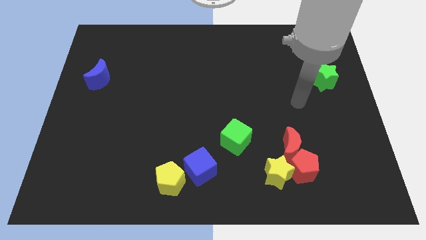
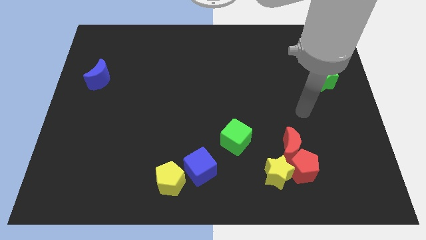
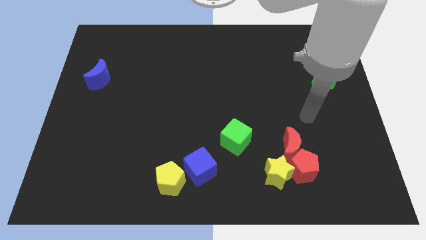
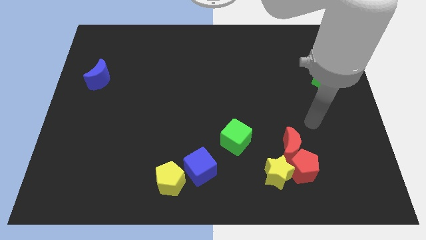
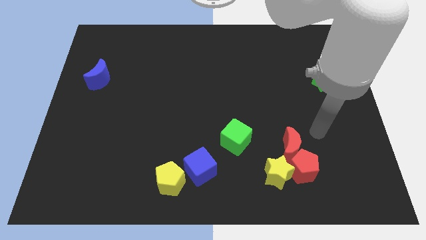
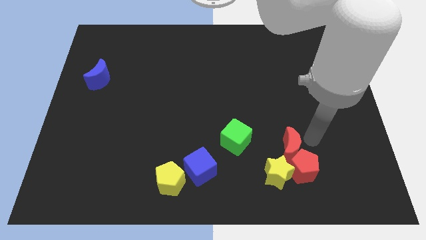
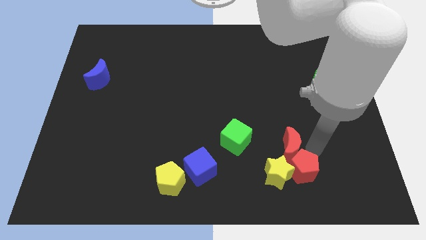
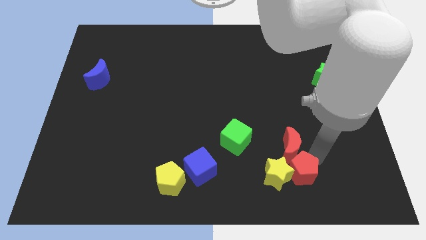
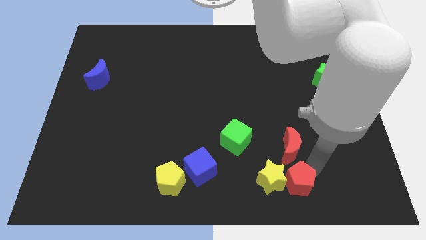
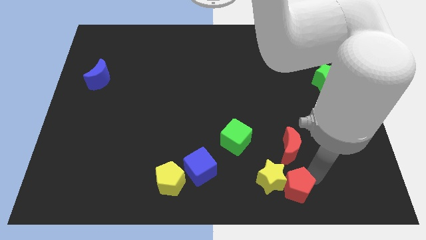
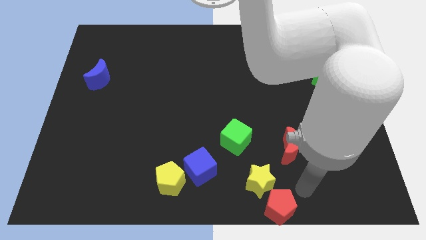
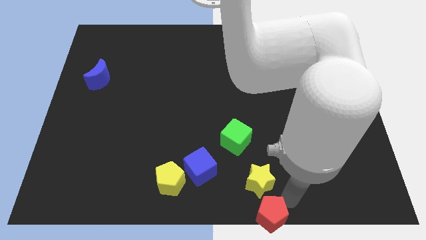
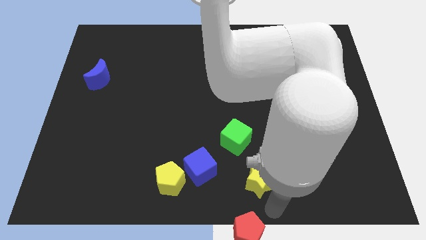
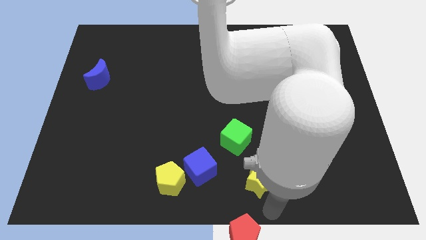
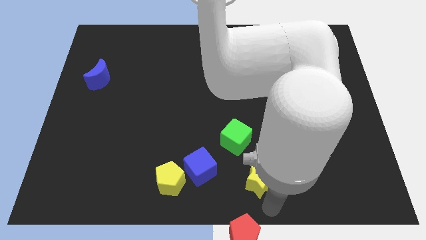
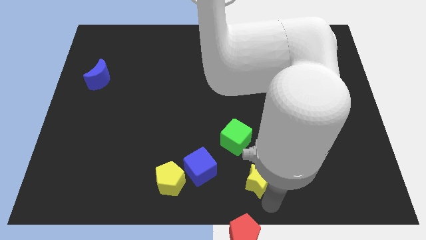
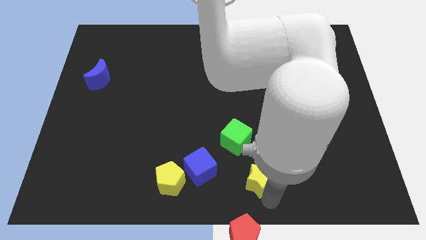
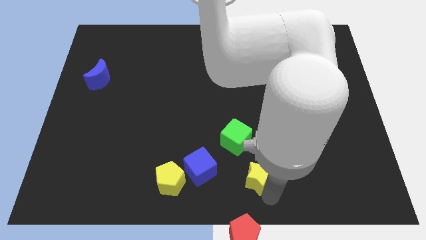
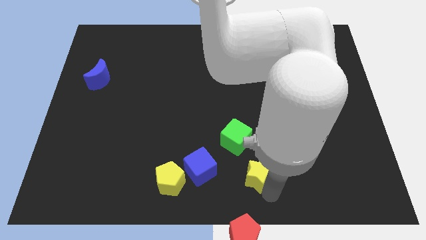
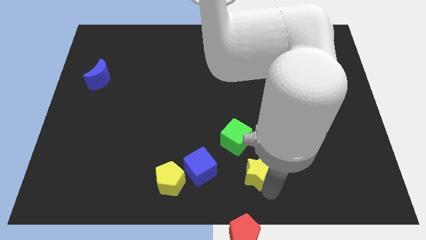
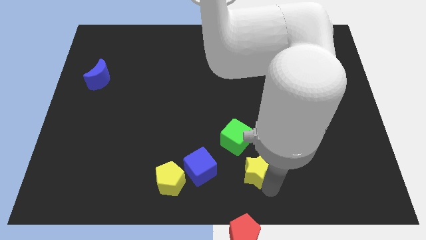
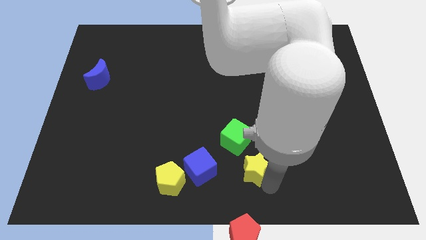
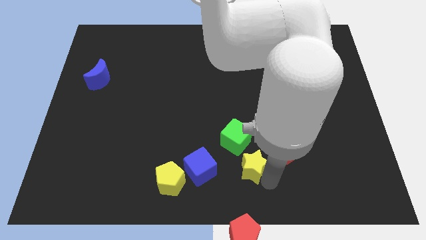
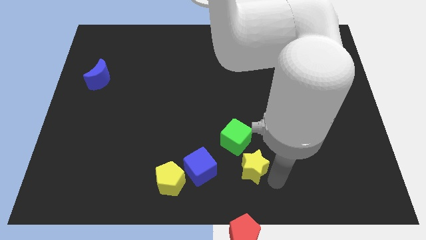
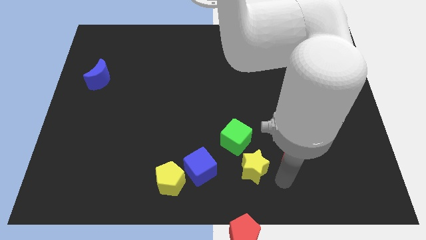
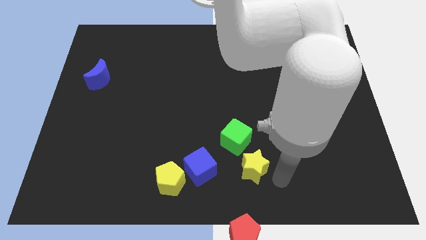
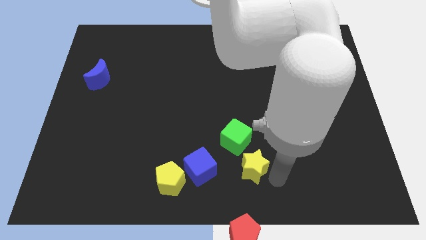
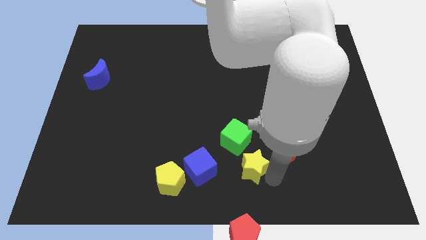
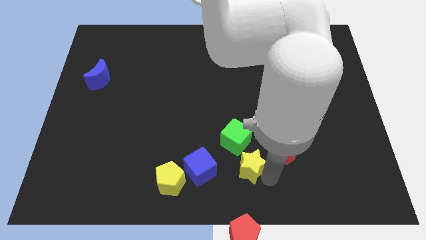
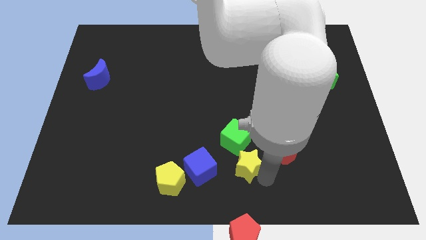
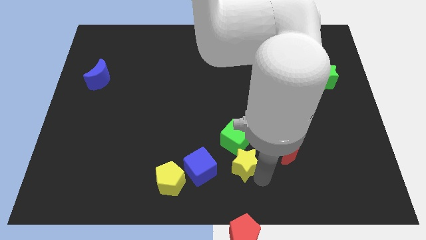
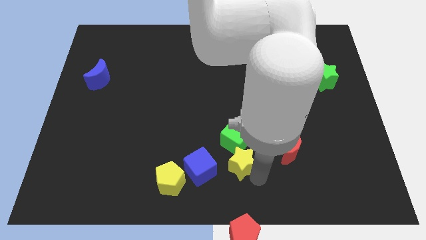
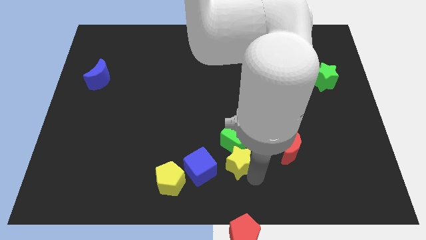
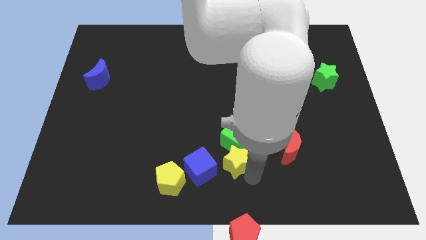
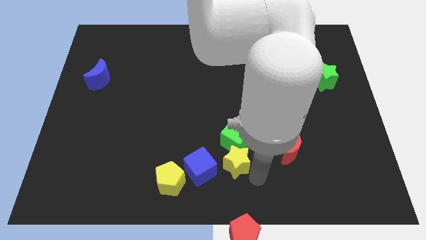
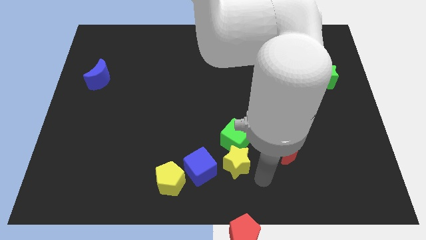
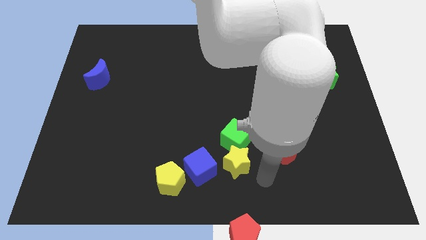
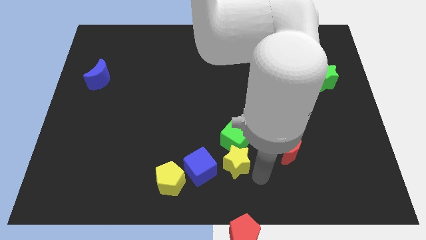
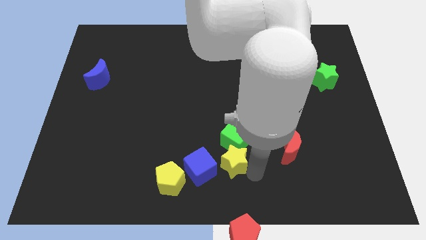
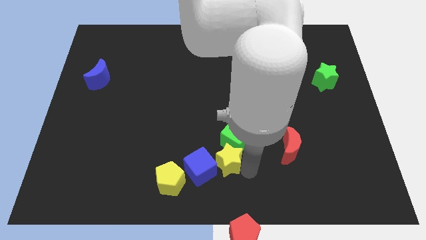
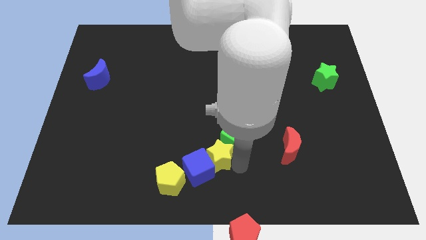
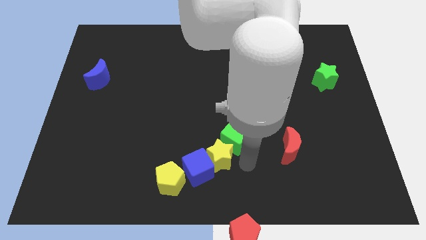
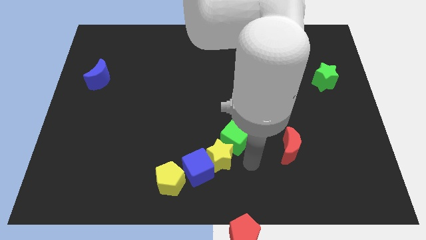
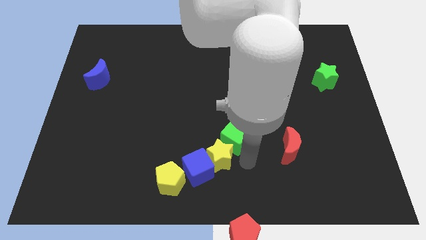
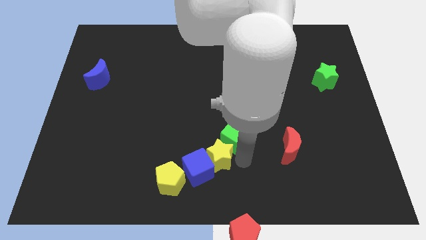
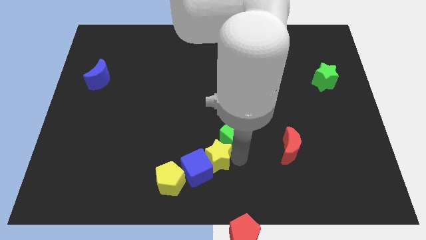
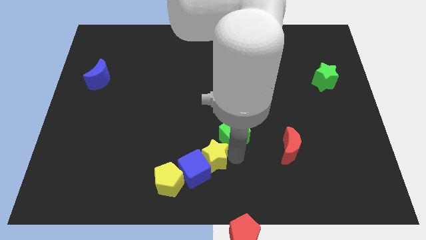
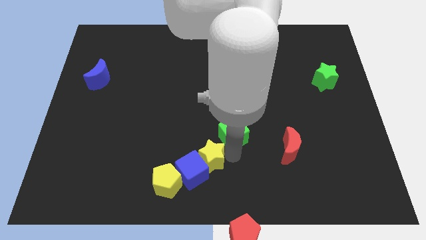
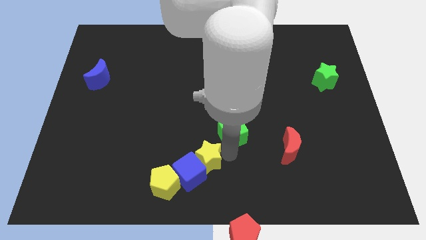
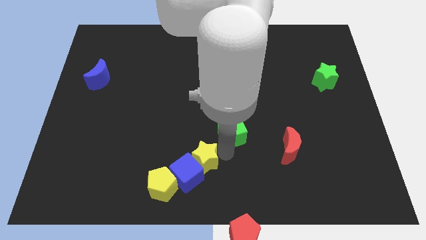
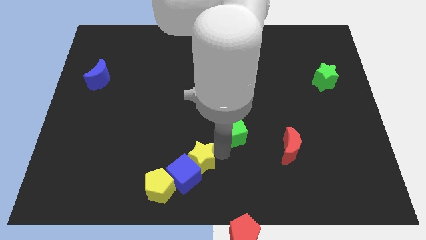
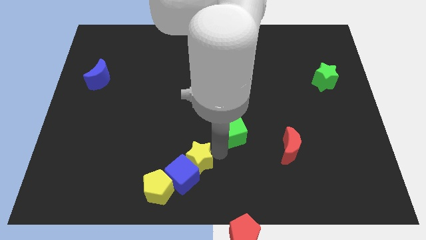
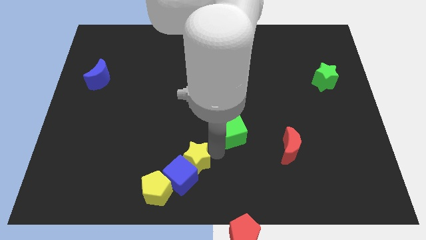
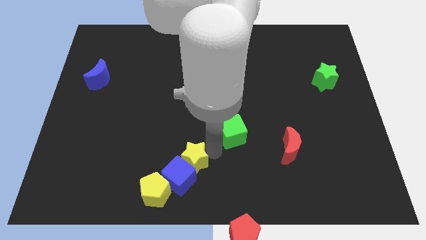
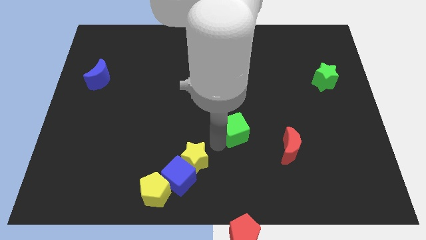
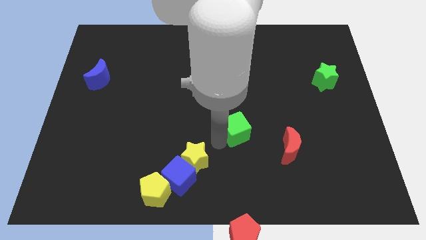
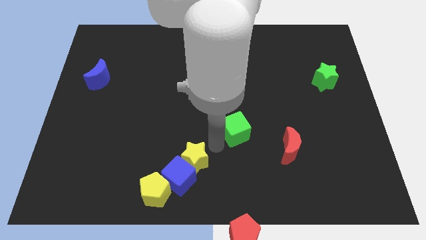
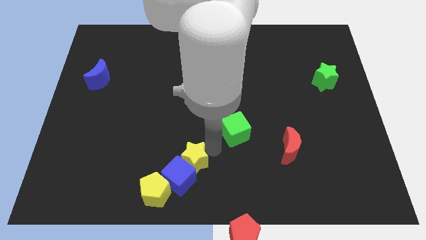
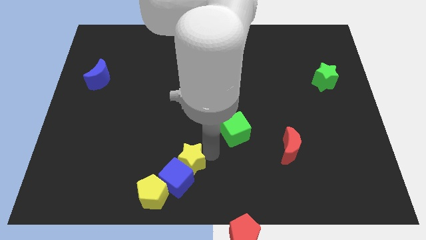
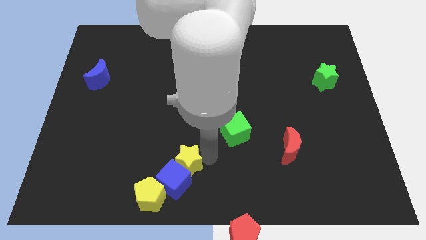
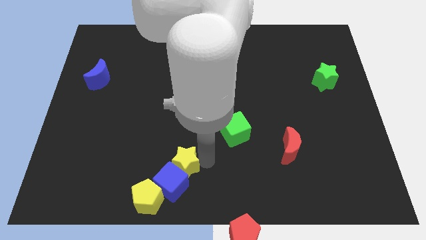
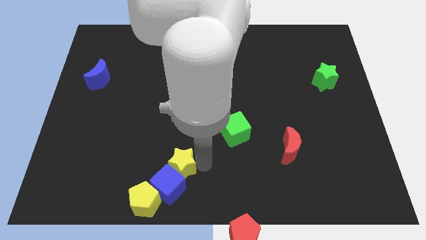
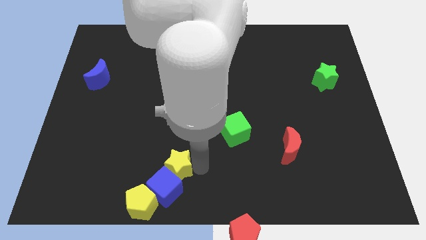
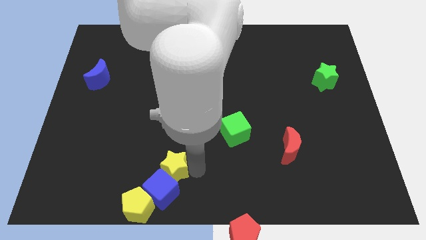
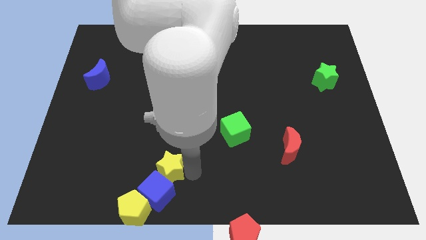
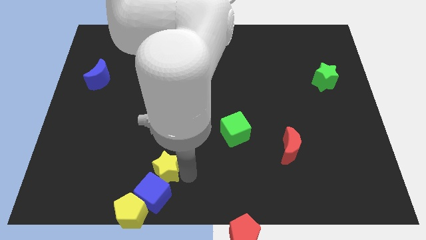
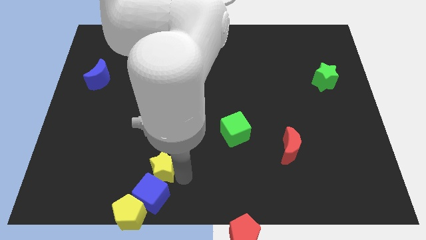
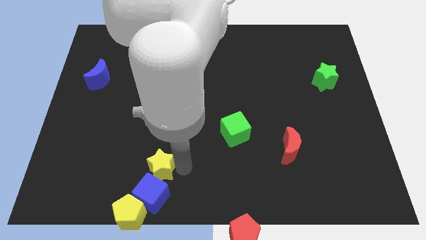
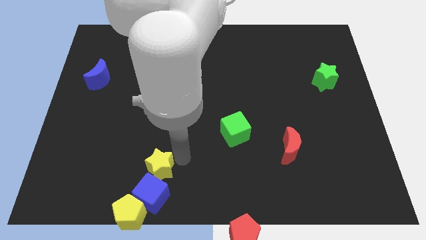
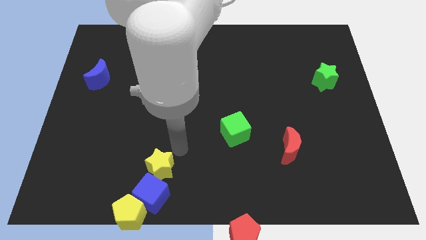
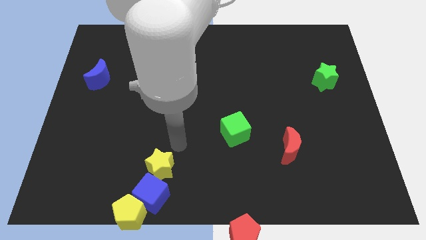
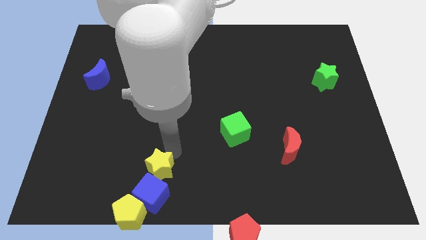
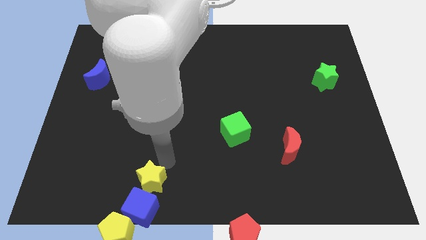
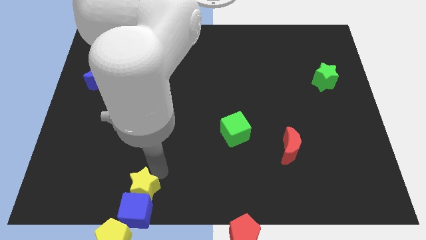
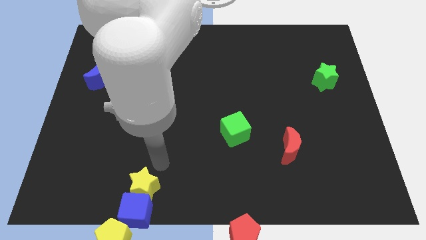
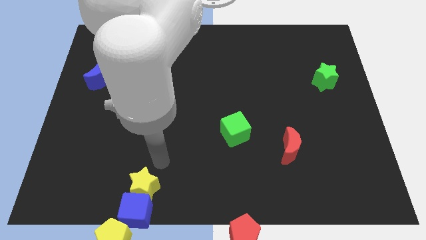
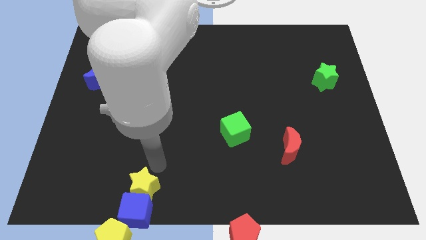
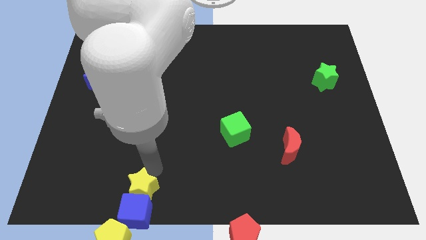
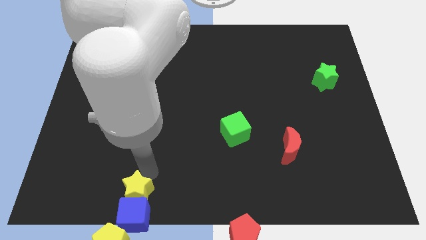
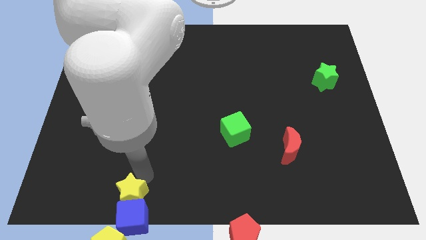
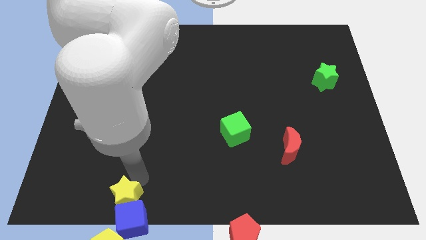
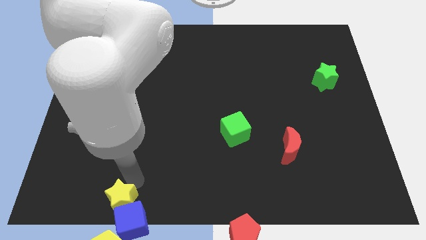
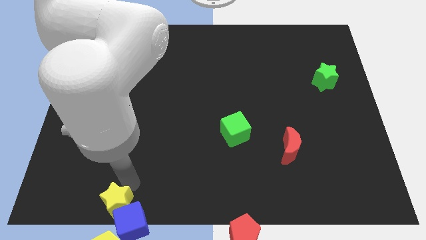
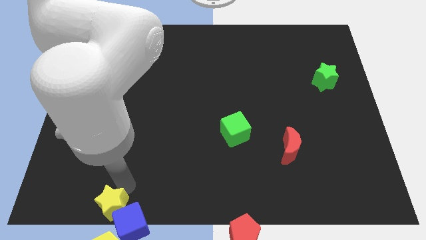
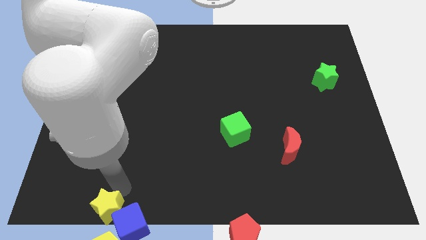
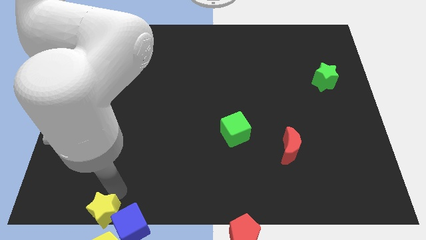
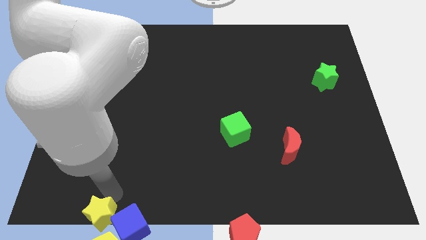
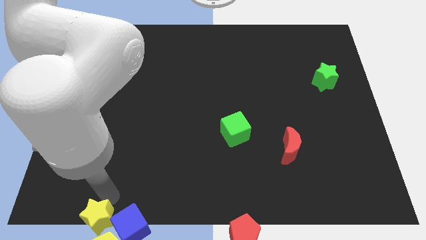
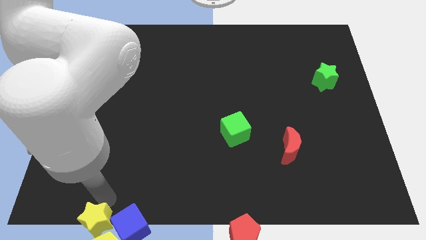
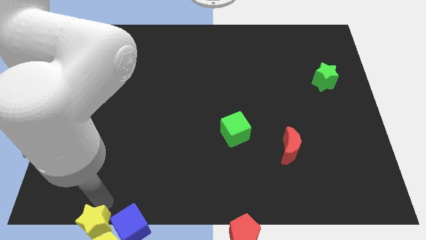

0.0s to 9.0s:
push the yellow star towards the yellow pentagon
